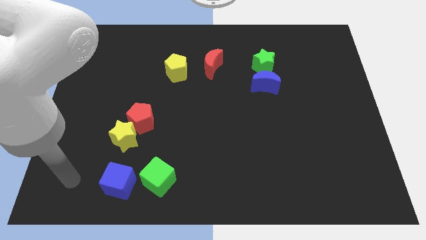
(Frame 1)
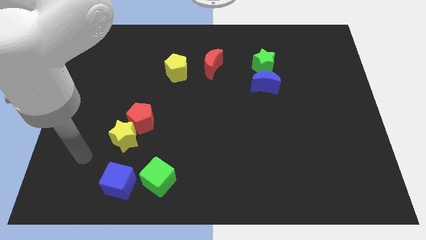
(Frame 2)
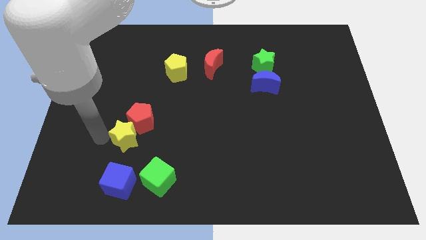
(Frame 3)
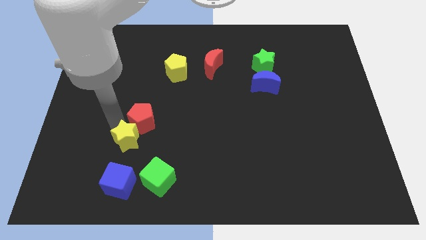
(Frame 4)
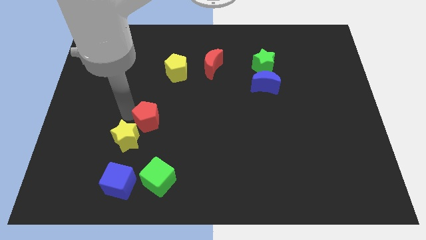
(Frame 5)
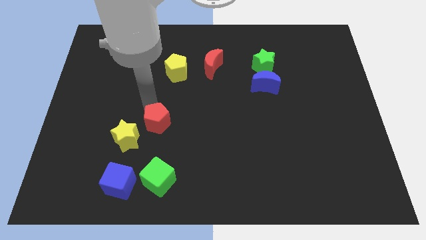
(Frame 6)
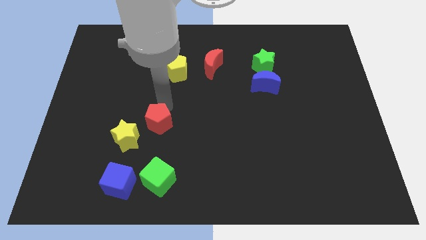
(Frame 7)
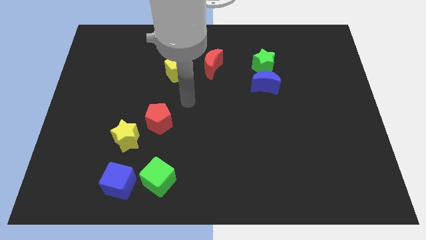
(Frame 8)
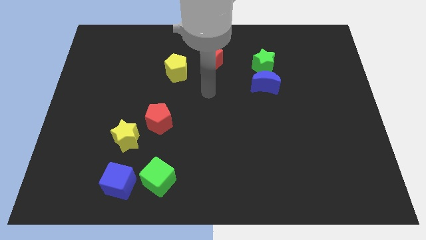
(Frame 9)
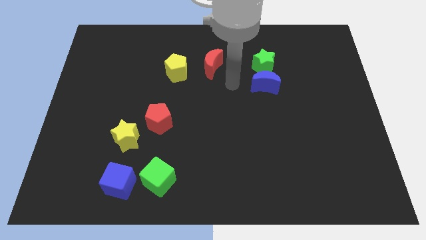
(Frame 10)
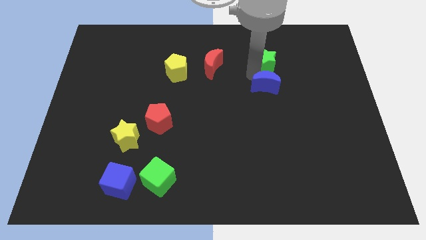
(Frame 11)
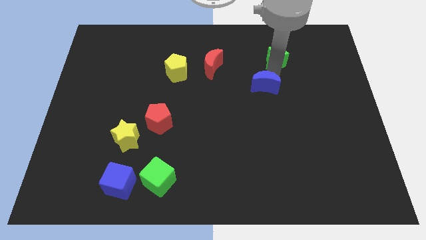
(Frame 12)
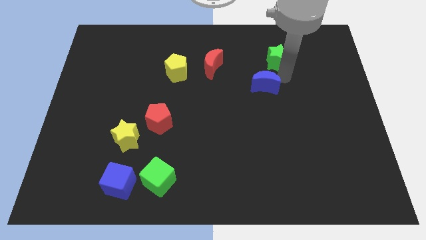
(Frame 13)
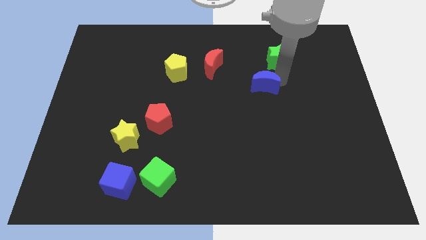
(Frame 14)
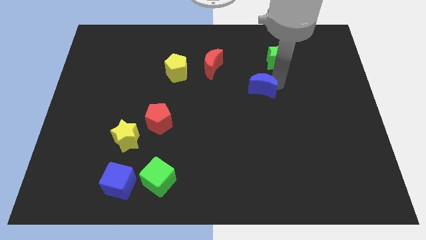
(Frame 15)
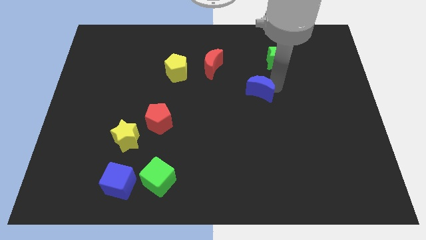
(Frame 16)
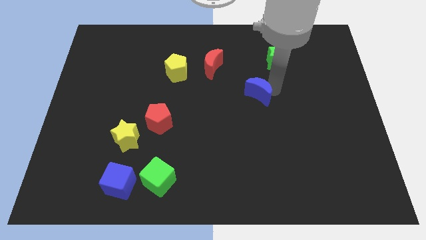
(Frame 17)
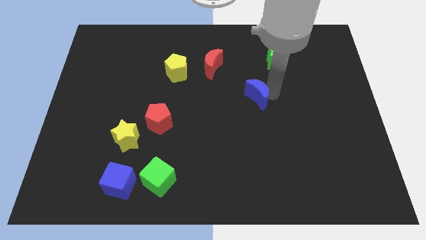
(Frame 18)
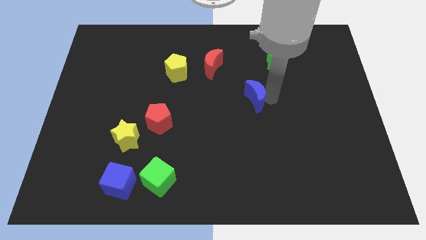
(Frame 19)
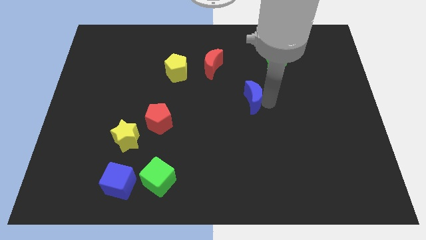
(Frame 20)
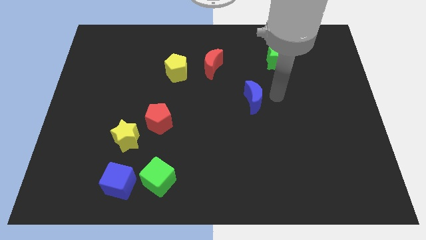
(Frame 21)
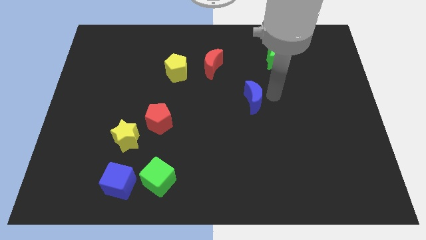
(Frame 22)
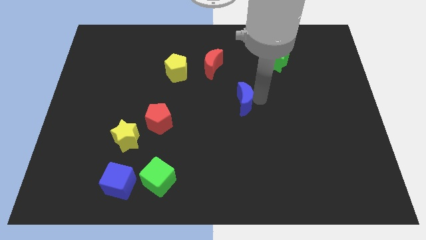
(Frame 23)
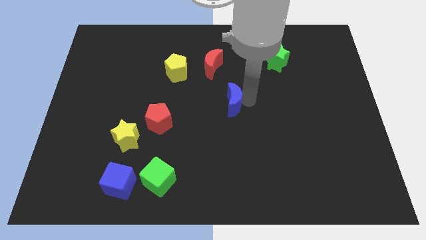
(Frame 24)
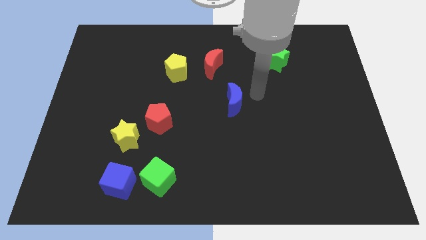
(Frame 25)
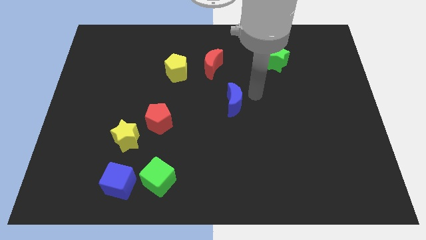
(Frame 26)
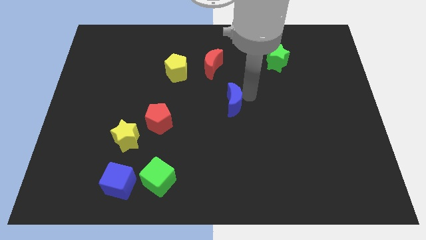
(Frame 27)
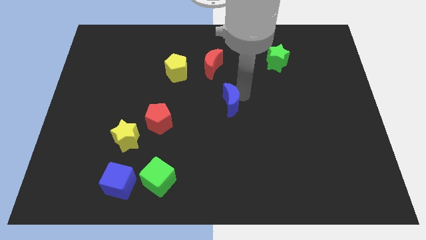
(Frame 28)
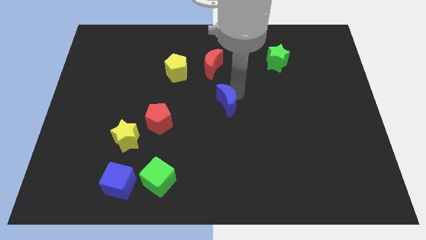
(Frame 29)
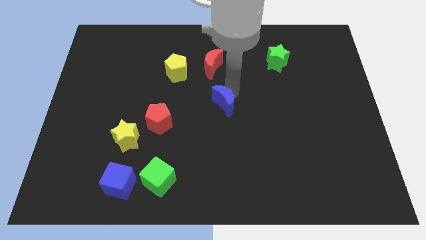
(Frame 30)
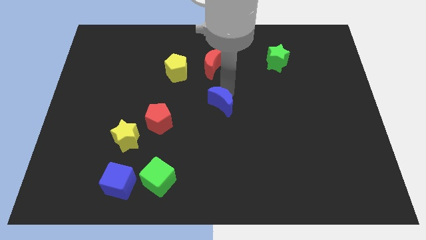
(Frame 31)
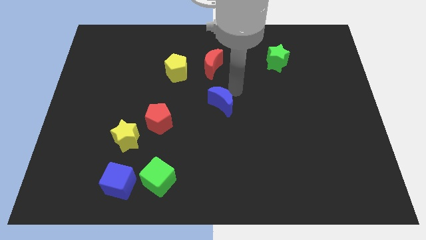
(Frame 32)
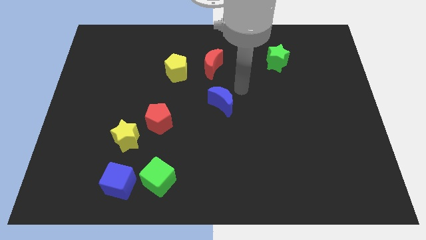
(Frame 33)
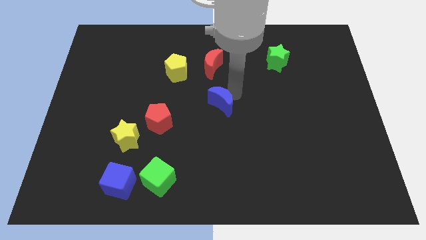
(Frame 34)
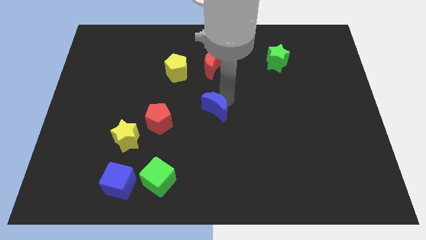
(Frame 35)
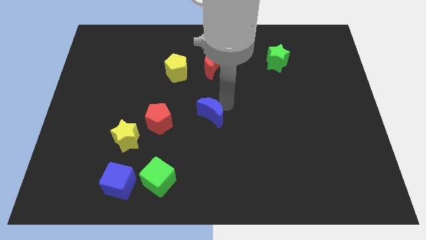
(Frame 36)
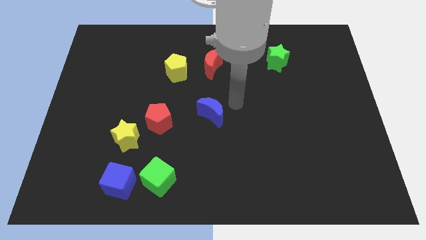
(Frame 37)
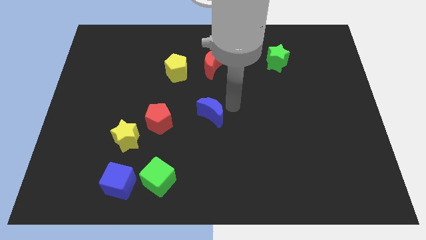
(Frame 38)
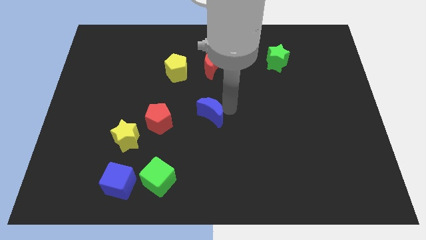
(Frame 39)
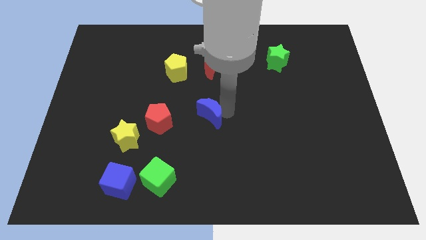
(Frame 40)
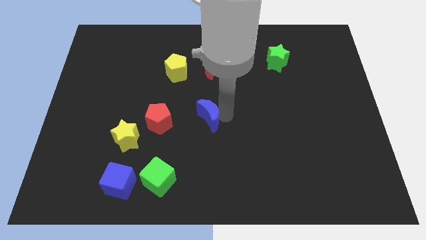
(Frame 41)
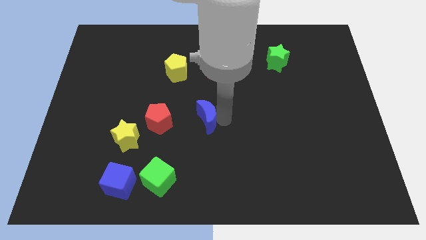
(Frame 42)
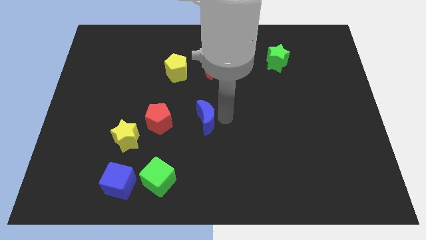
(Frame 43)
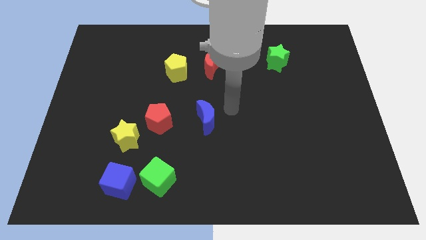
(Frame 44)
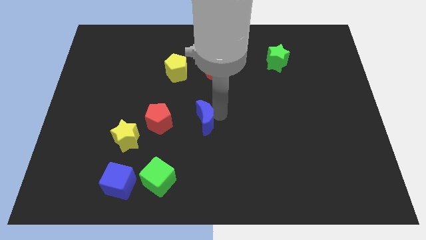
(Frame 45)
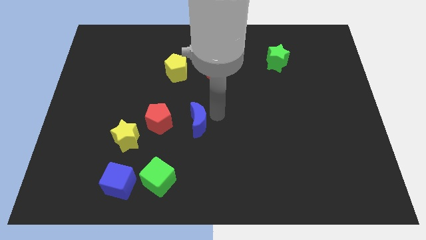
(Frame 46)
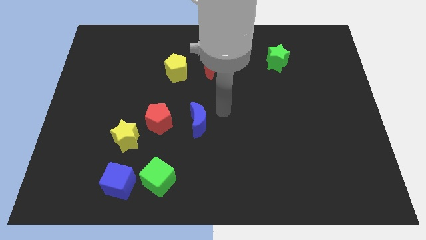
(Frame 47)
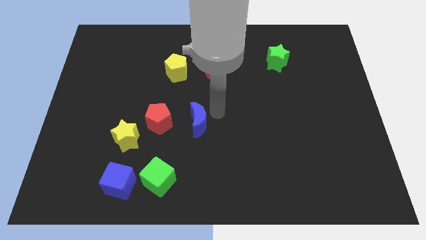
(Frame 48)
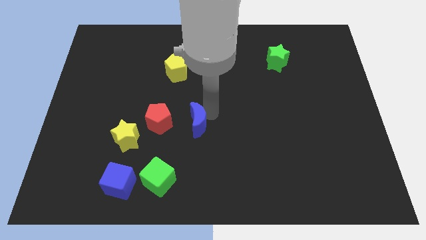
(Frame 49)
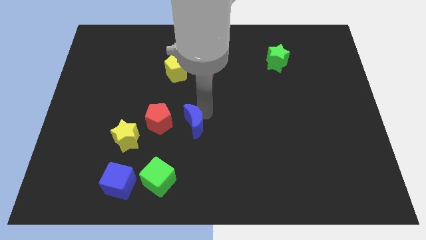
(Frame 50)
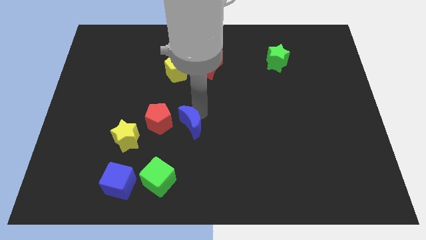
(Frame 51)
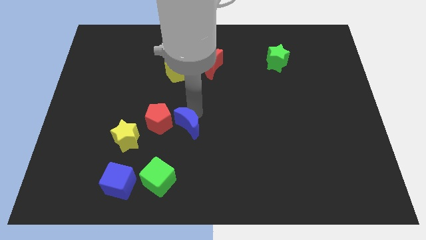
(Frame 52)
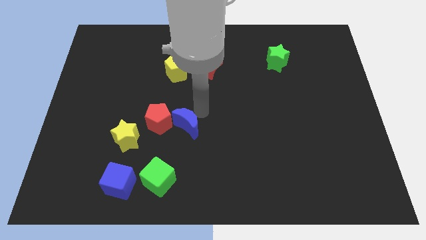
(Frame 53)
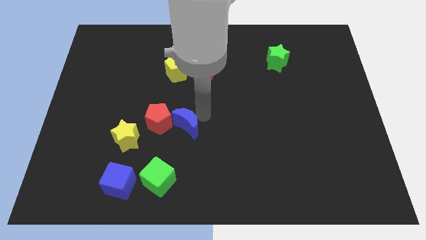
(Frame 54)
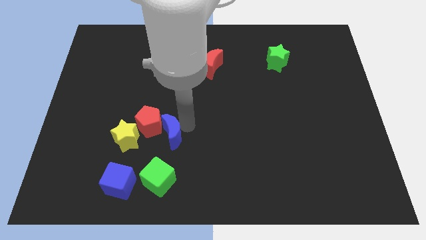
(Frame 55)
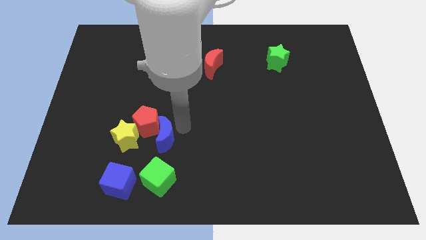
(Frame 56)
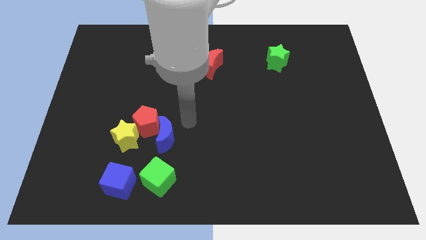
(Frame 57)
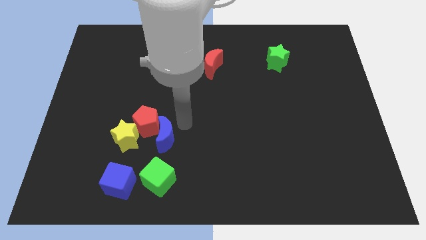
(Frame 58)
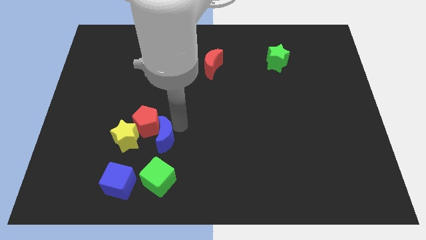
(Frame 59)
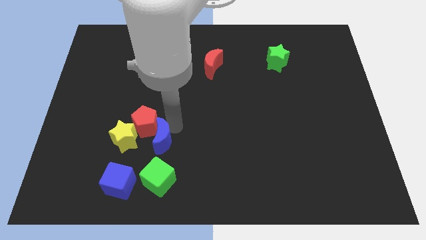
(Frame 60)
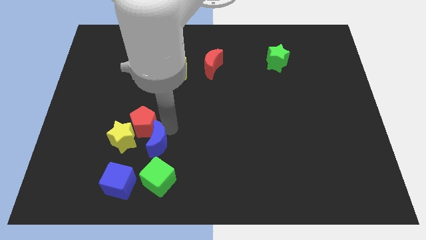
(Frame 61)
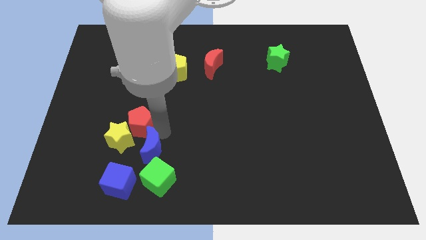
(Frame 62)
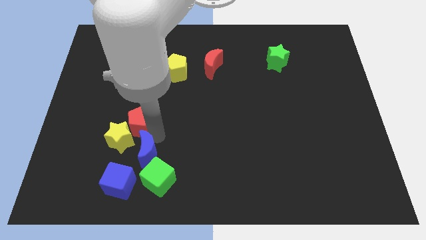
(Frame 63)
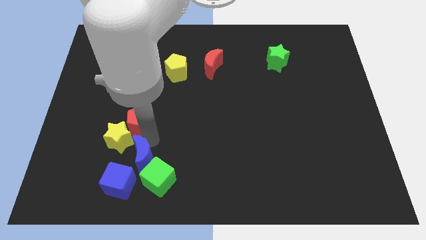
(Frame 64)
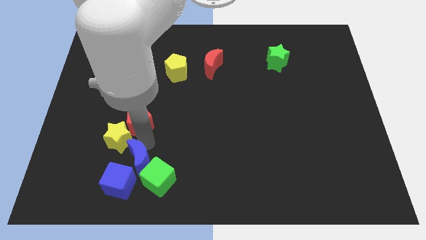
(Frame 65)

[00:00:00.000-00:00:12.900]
push the blue moon to the left side of the green cube
